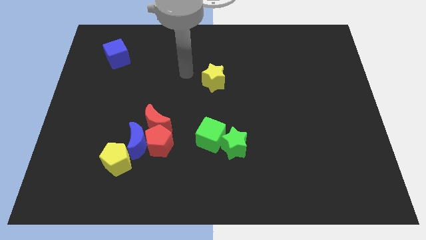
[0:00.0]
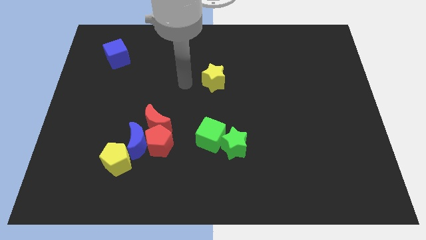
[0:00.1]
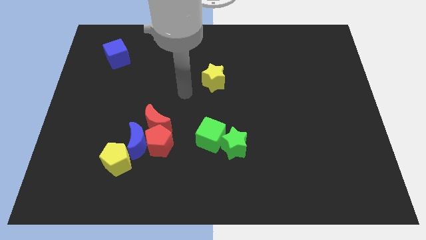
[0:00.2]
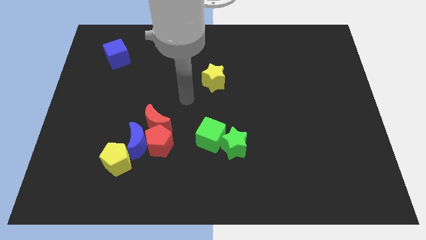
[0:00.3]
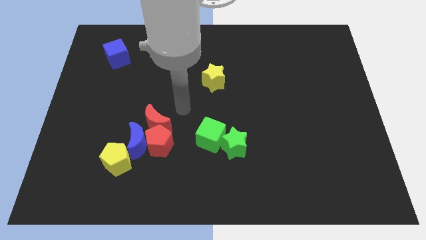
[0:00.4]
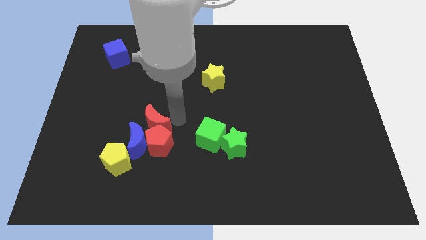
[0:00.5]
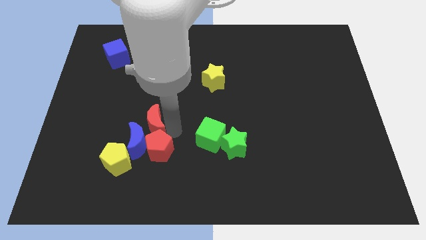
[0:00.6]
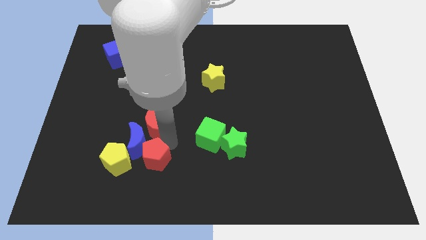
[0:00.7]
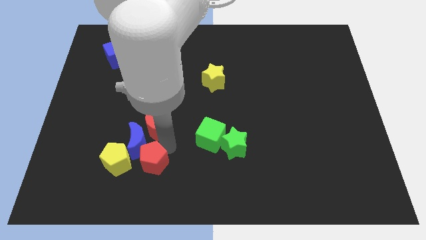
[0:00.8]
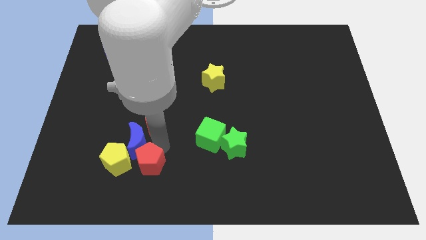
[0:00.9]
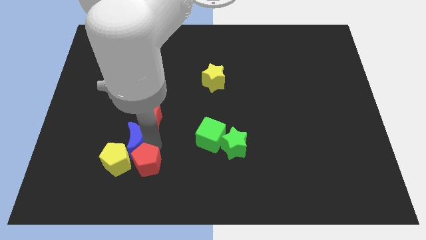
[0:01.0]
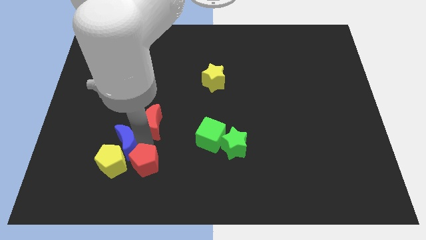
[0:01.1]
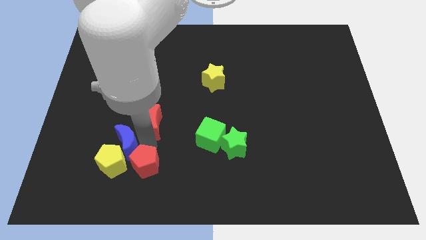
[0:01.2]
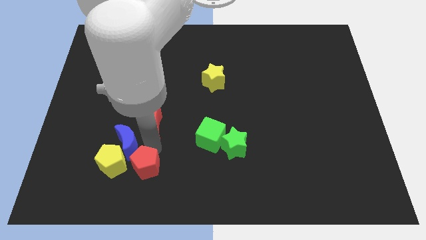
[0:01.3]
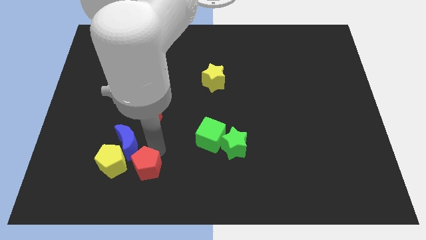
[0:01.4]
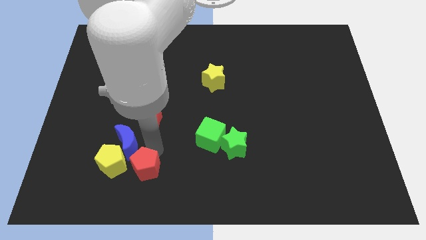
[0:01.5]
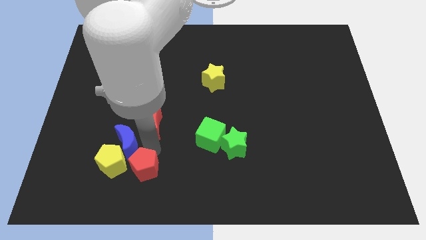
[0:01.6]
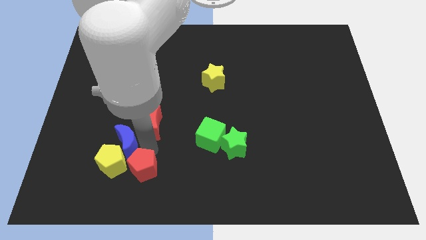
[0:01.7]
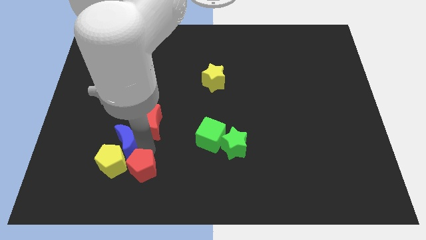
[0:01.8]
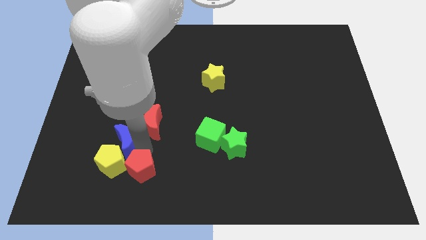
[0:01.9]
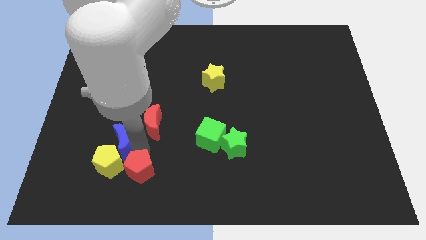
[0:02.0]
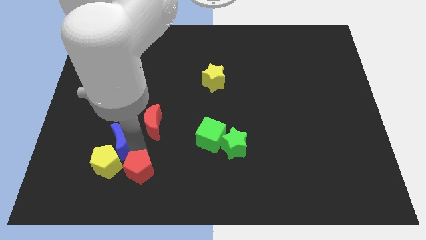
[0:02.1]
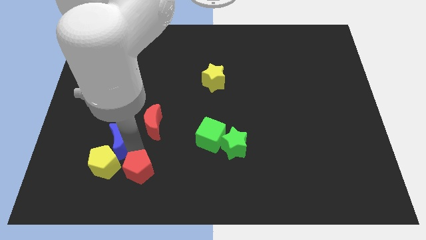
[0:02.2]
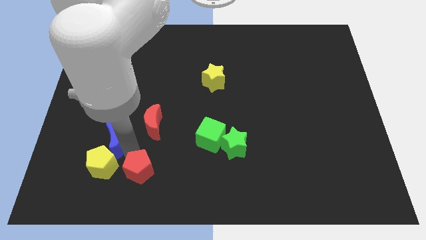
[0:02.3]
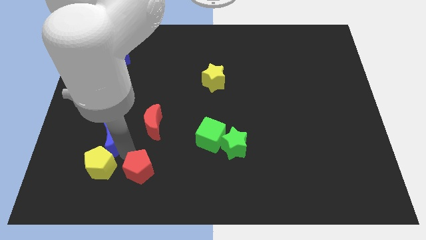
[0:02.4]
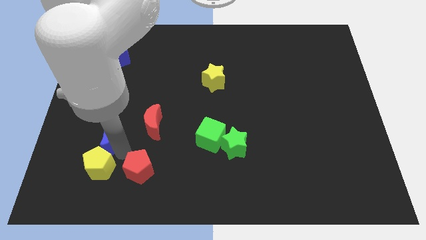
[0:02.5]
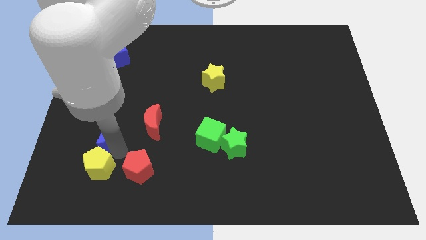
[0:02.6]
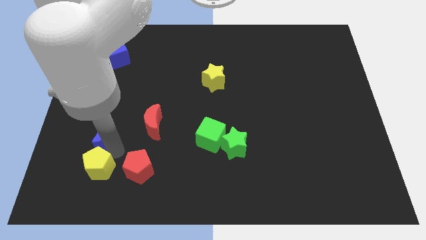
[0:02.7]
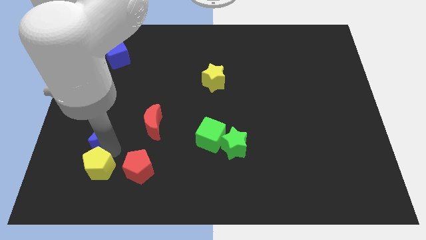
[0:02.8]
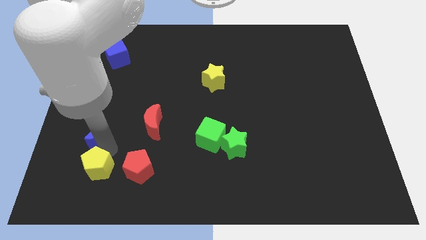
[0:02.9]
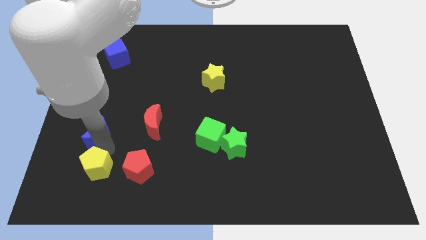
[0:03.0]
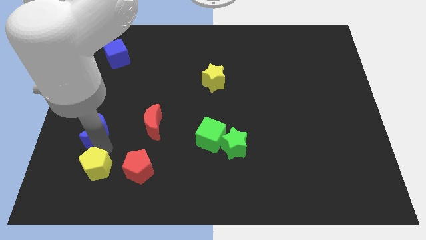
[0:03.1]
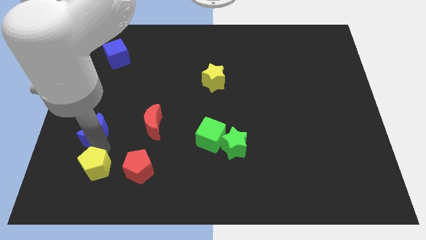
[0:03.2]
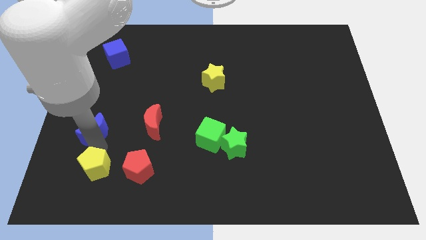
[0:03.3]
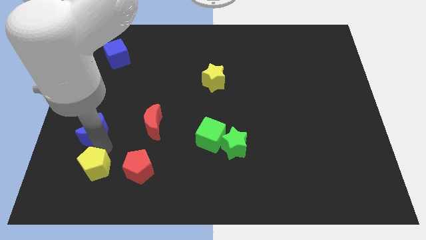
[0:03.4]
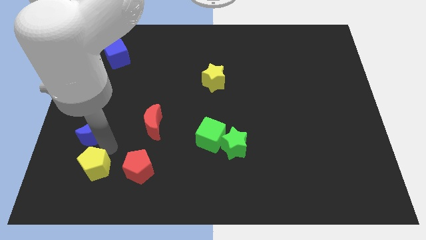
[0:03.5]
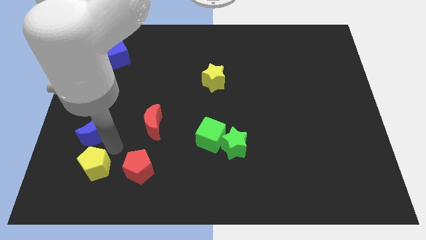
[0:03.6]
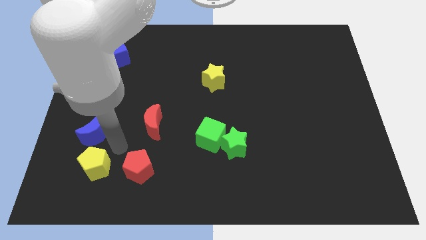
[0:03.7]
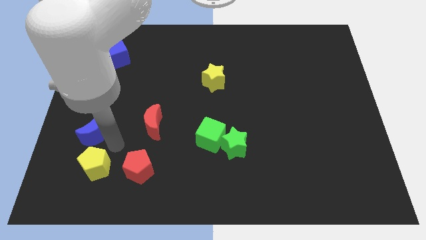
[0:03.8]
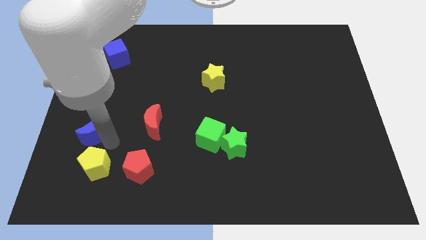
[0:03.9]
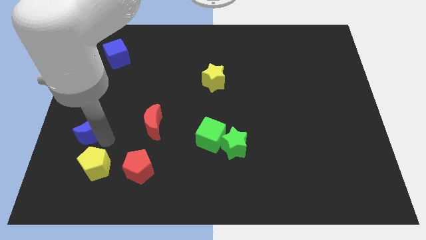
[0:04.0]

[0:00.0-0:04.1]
separate the blue moon from the group

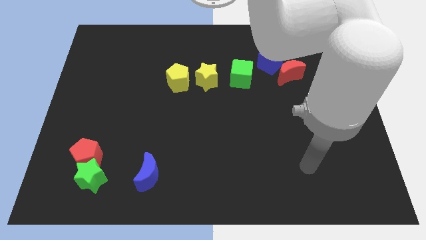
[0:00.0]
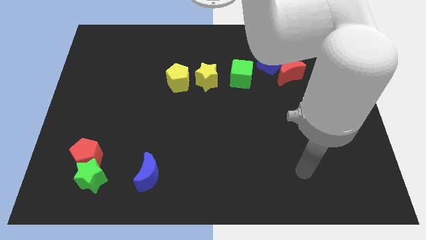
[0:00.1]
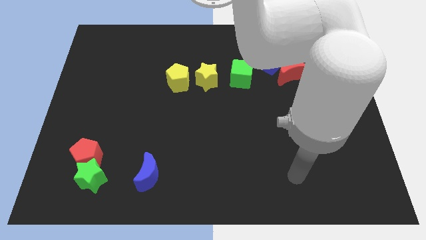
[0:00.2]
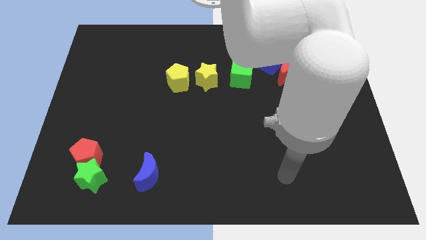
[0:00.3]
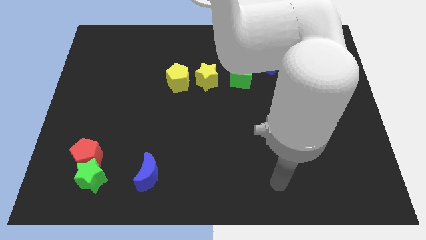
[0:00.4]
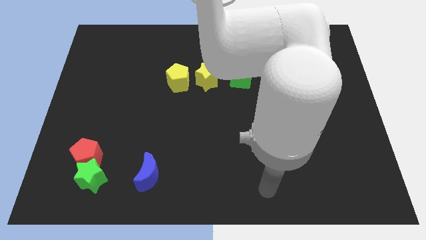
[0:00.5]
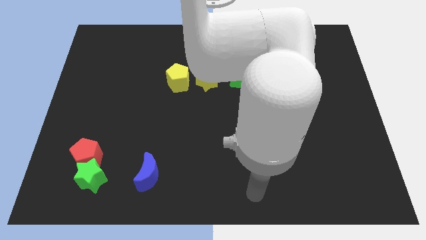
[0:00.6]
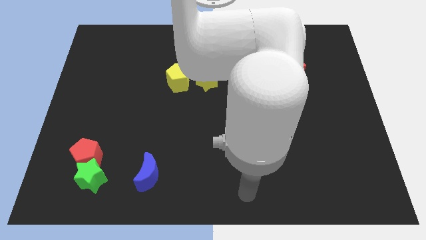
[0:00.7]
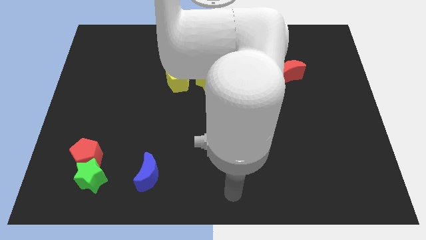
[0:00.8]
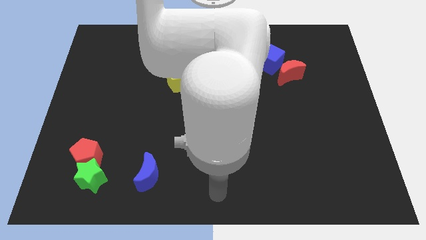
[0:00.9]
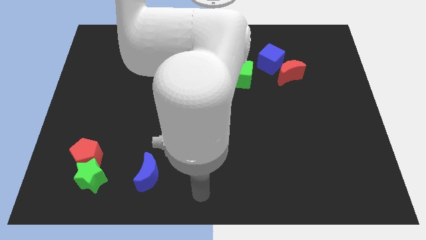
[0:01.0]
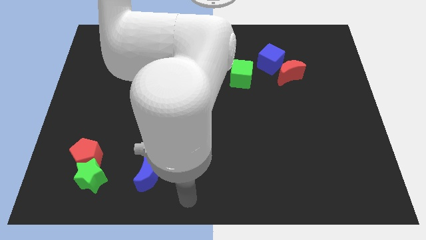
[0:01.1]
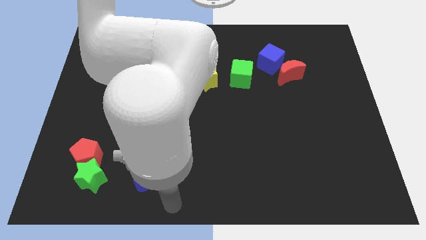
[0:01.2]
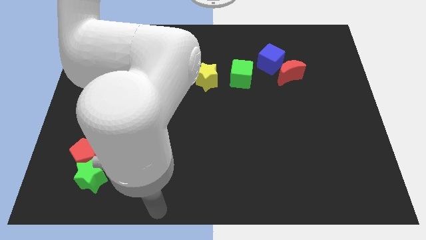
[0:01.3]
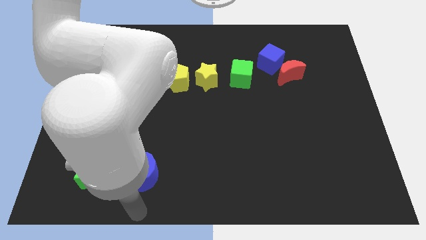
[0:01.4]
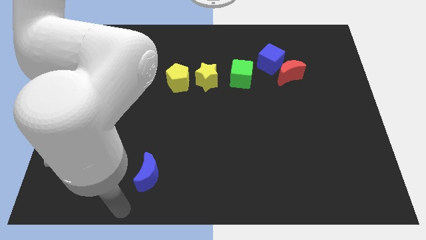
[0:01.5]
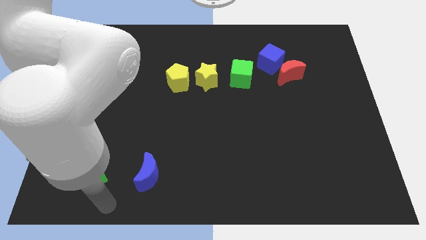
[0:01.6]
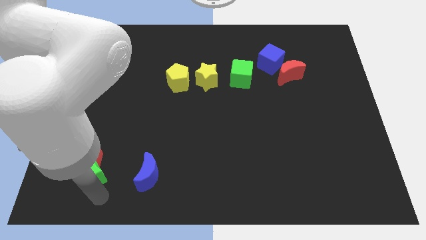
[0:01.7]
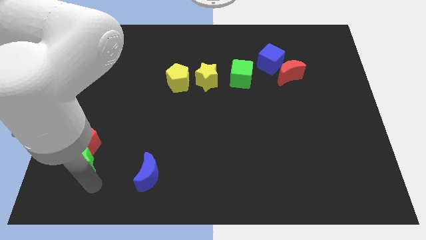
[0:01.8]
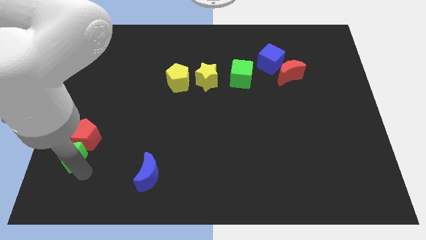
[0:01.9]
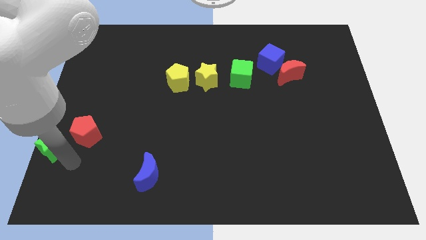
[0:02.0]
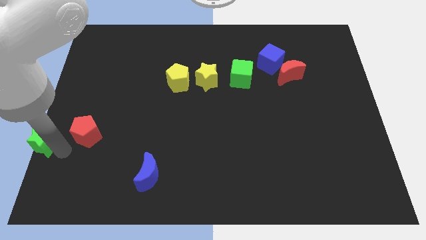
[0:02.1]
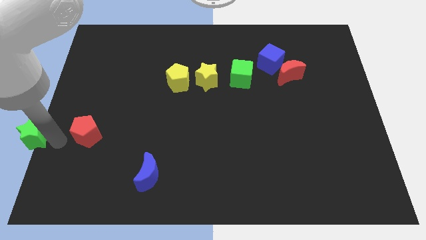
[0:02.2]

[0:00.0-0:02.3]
move the red pentagon away from the green star

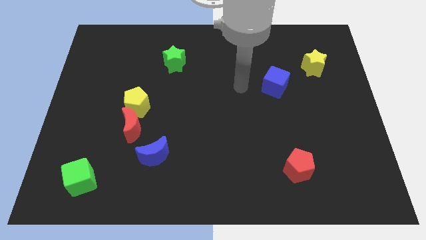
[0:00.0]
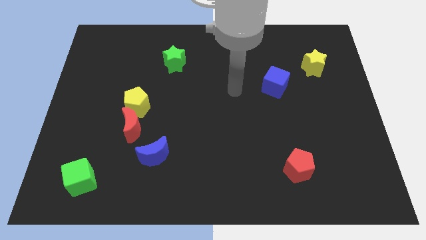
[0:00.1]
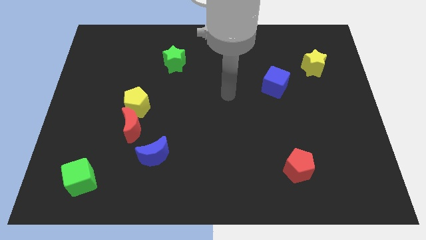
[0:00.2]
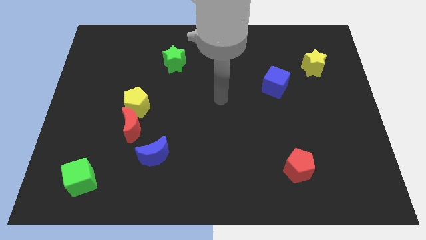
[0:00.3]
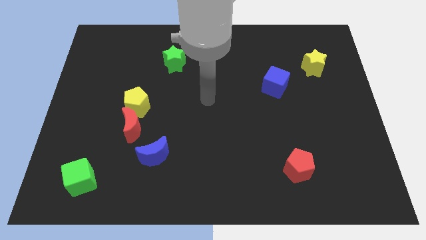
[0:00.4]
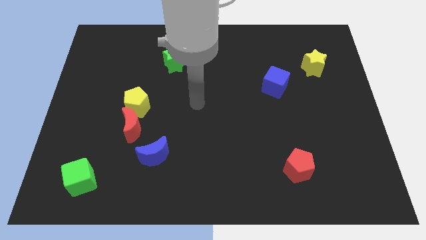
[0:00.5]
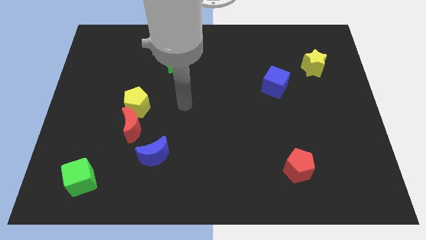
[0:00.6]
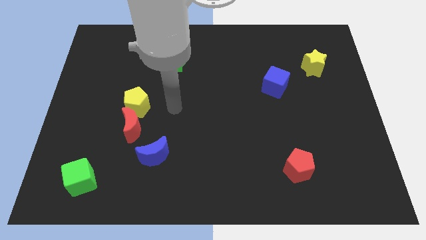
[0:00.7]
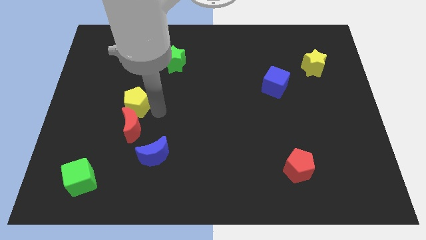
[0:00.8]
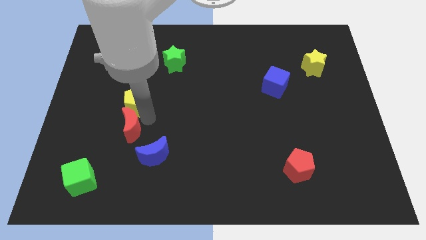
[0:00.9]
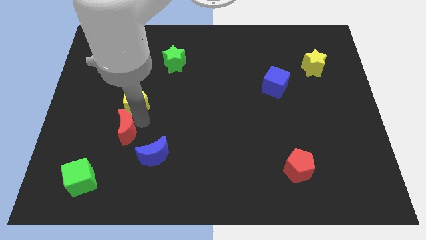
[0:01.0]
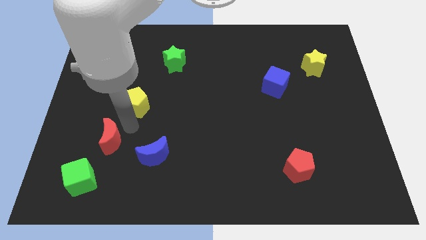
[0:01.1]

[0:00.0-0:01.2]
separate the yellow pentagon from the red moon

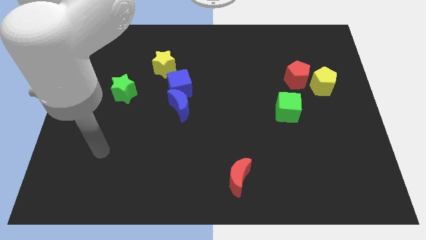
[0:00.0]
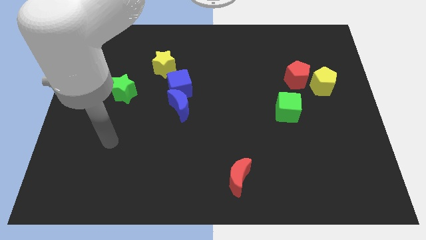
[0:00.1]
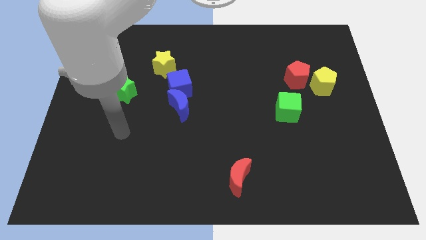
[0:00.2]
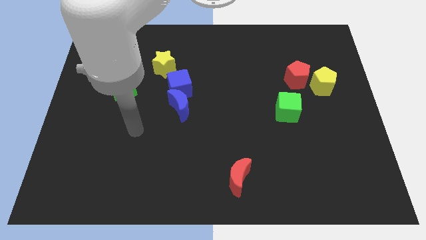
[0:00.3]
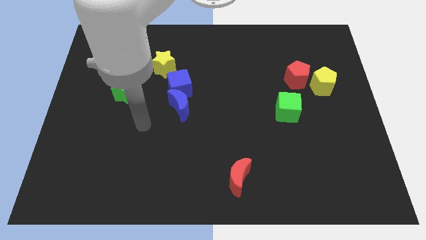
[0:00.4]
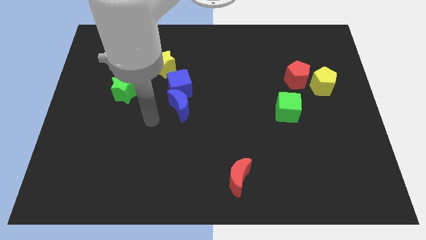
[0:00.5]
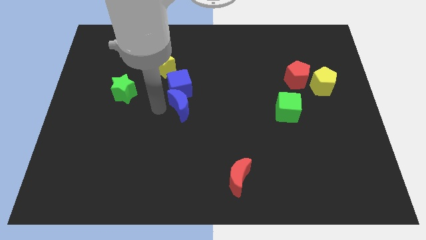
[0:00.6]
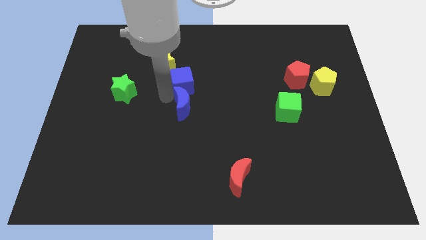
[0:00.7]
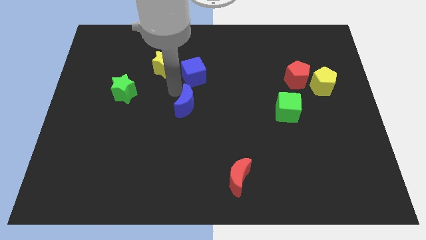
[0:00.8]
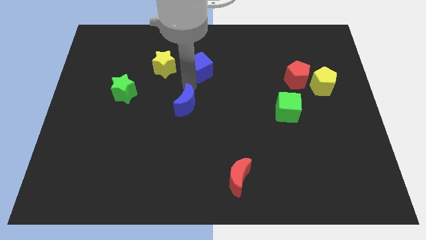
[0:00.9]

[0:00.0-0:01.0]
move the blue moon away from the blue cube

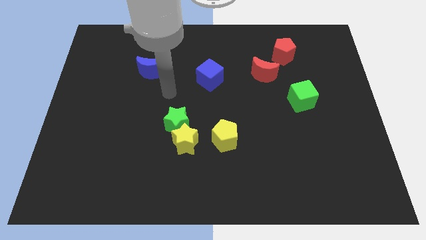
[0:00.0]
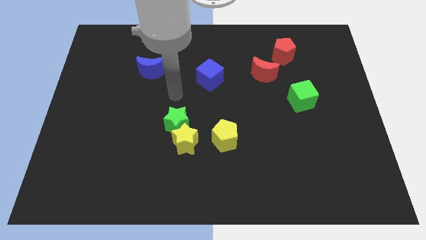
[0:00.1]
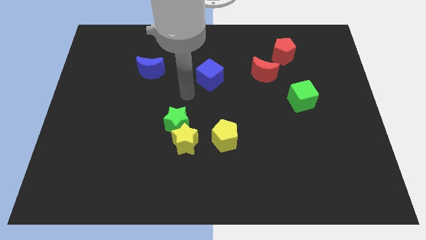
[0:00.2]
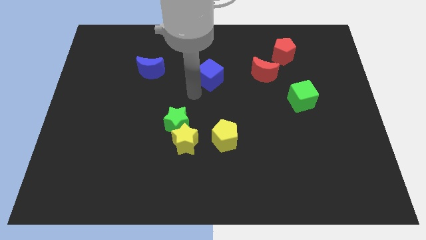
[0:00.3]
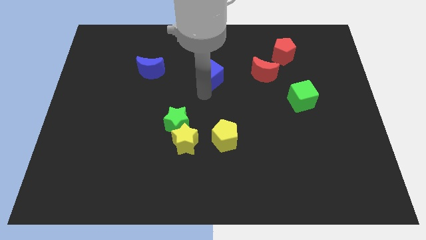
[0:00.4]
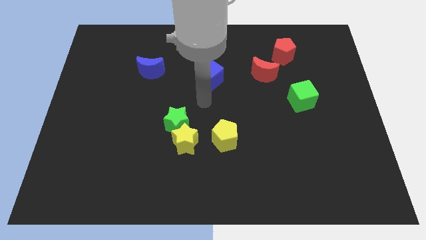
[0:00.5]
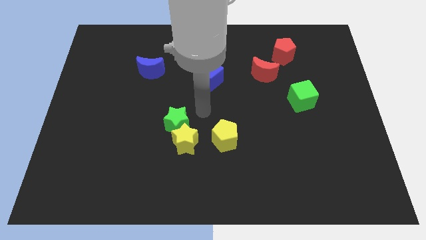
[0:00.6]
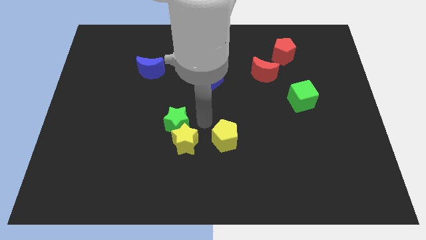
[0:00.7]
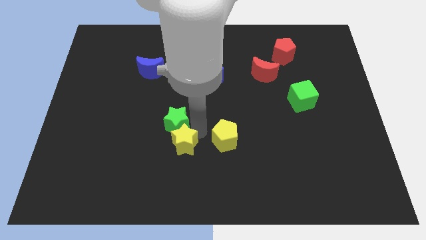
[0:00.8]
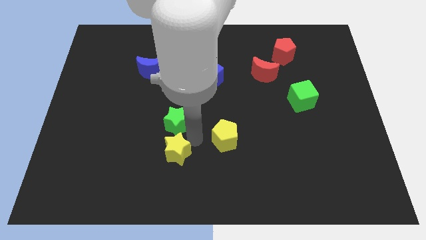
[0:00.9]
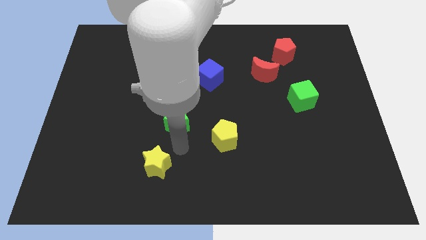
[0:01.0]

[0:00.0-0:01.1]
separate the green star from the yellow star
